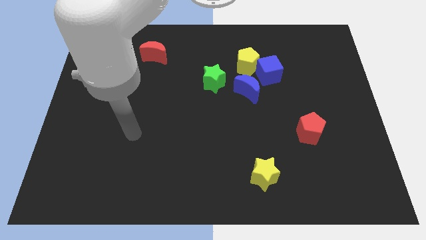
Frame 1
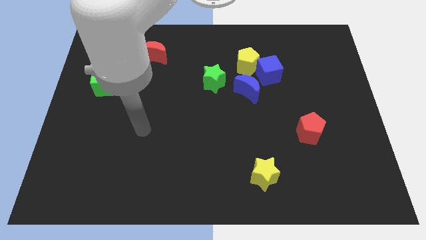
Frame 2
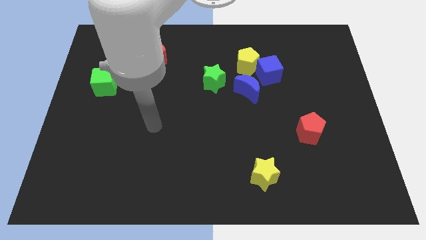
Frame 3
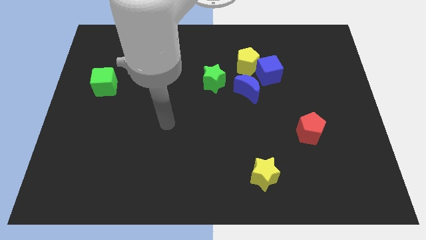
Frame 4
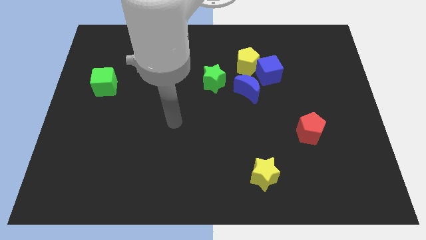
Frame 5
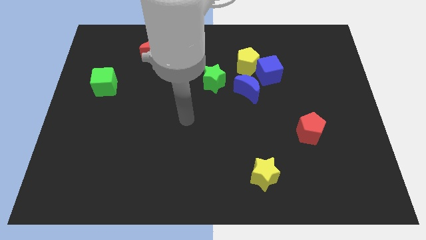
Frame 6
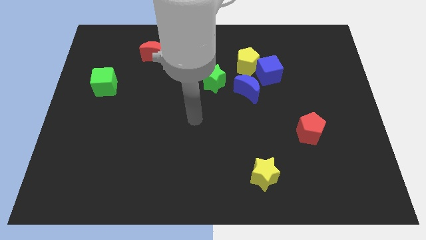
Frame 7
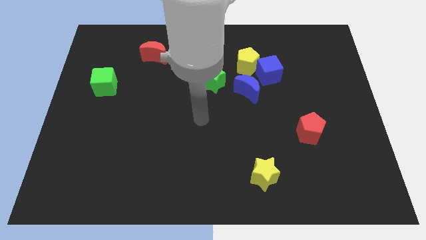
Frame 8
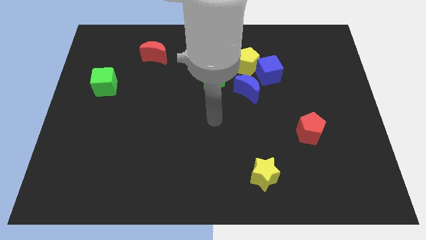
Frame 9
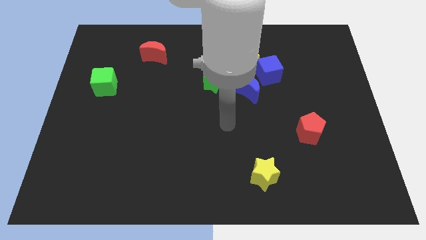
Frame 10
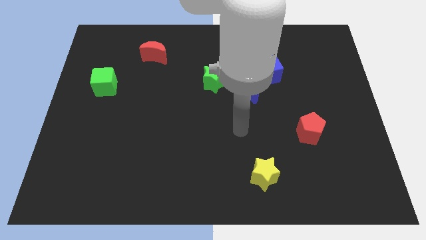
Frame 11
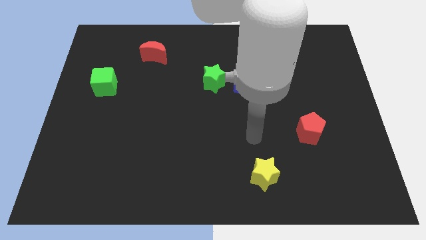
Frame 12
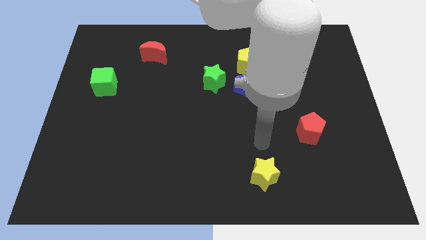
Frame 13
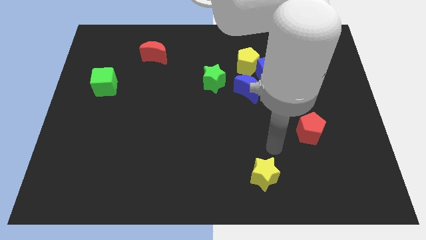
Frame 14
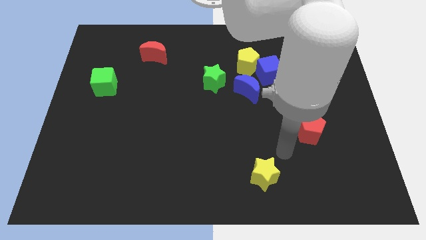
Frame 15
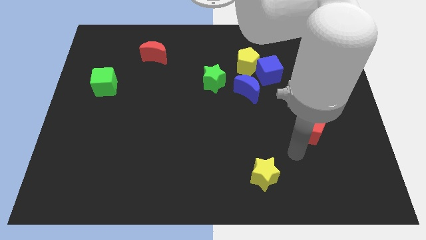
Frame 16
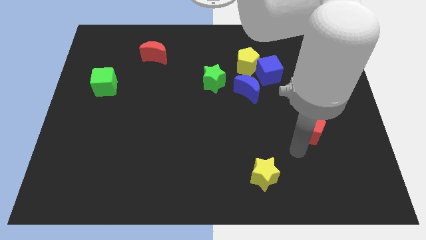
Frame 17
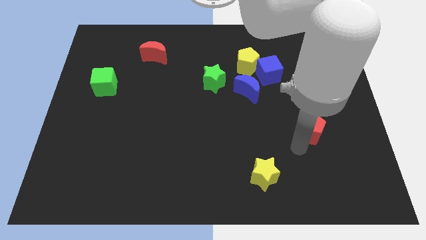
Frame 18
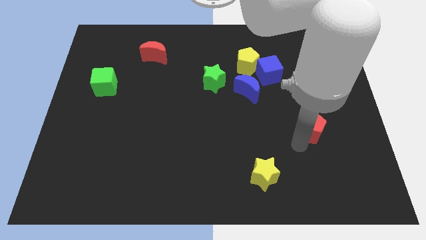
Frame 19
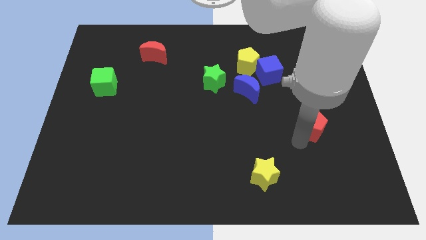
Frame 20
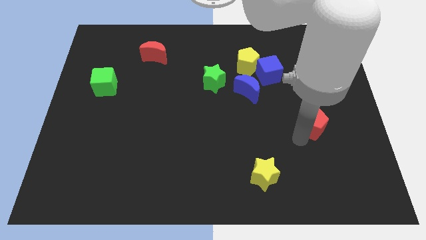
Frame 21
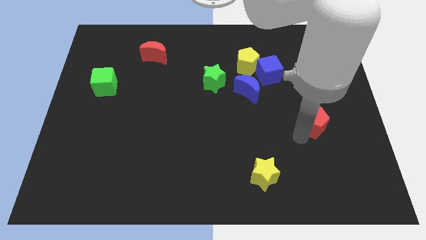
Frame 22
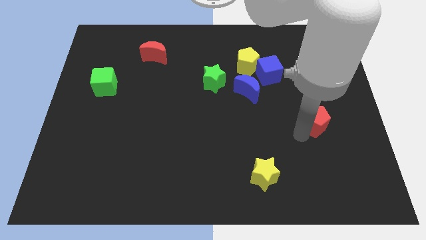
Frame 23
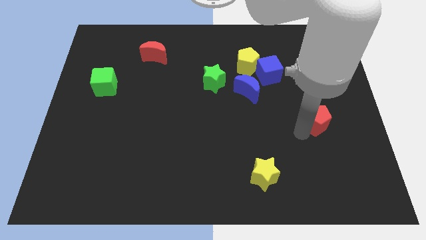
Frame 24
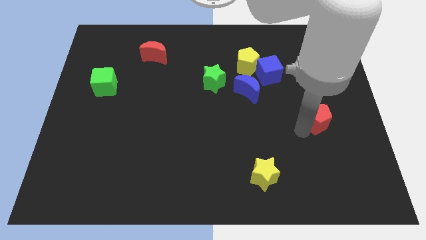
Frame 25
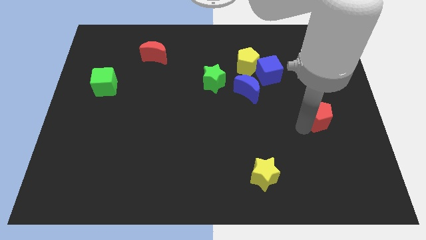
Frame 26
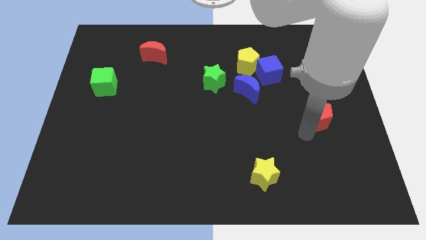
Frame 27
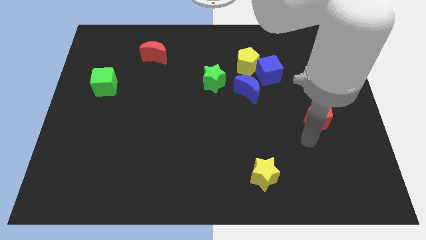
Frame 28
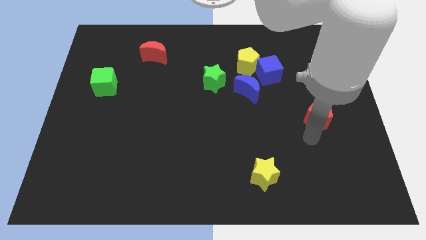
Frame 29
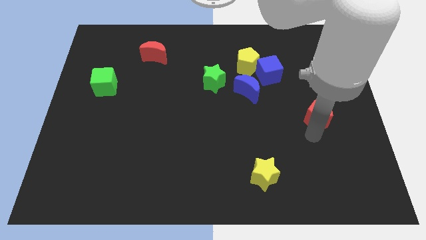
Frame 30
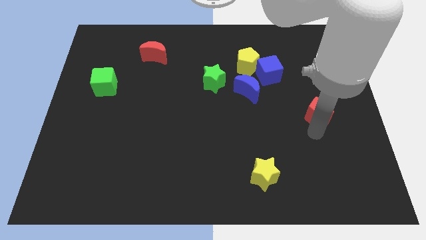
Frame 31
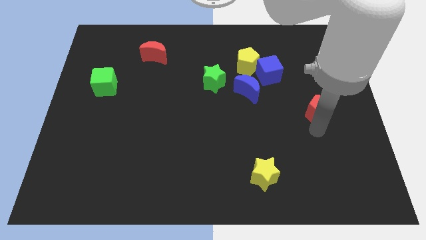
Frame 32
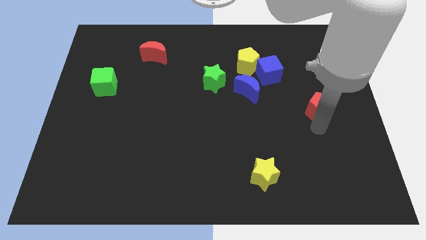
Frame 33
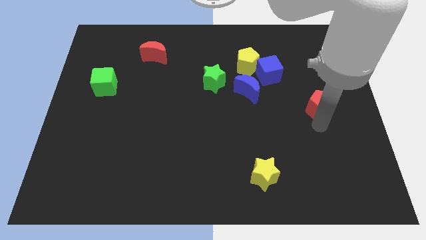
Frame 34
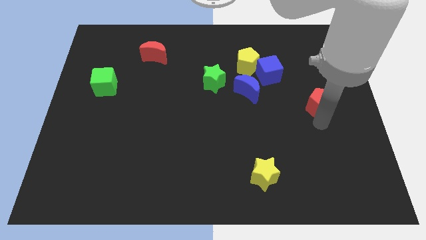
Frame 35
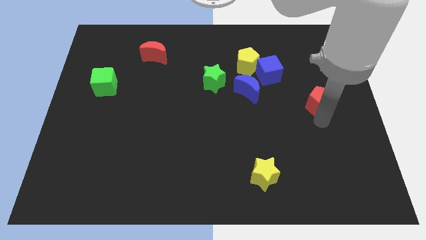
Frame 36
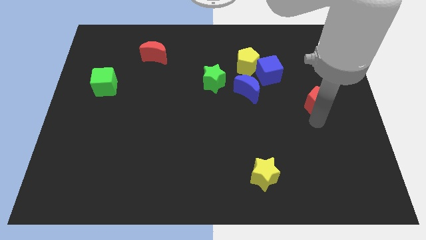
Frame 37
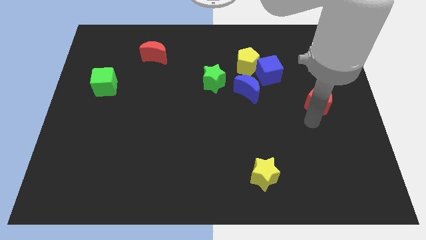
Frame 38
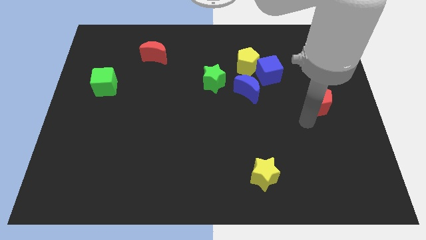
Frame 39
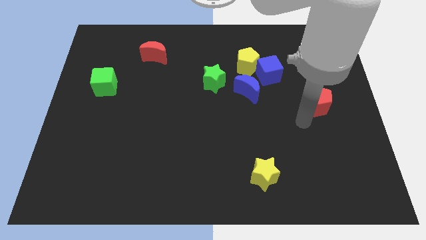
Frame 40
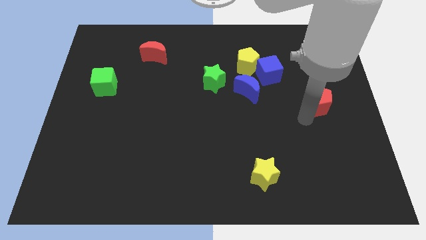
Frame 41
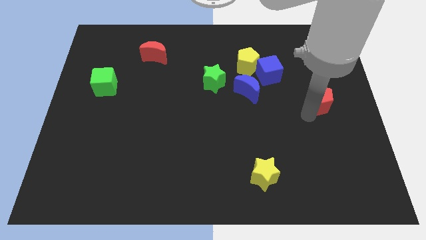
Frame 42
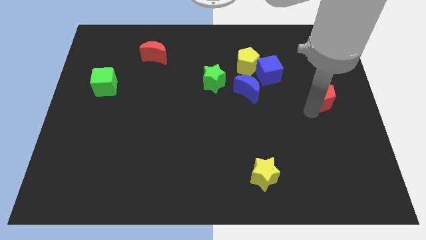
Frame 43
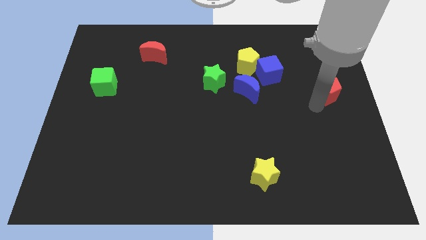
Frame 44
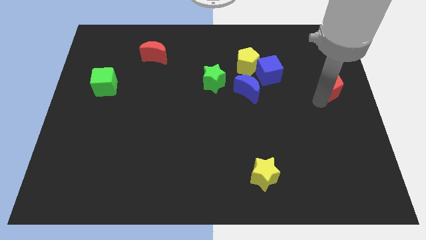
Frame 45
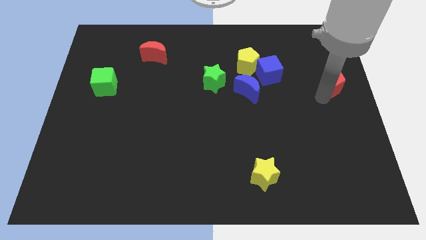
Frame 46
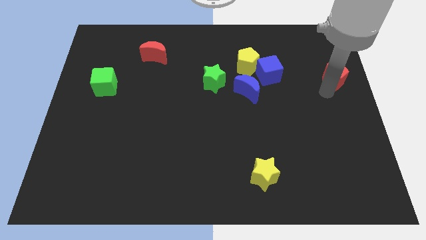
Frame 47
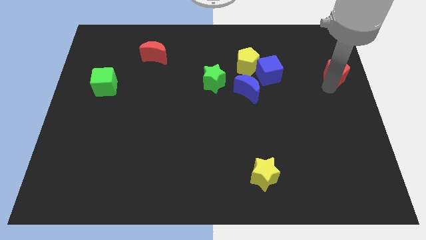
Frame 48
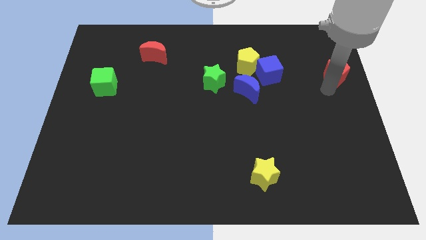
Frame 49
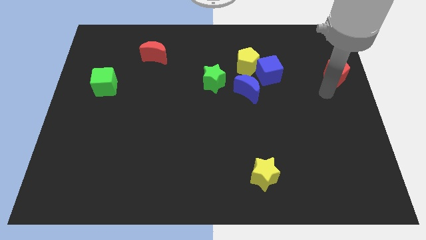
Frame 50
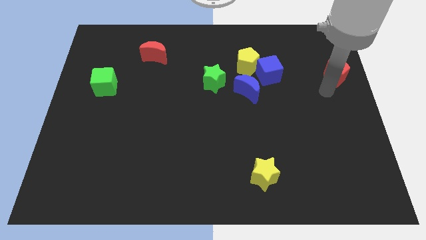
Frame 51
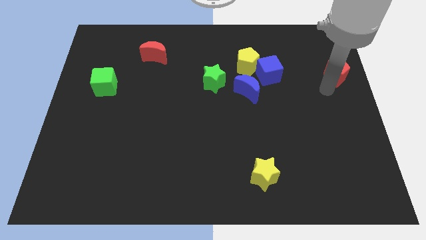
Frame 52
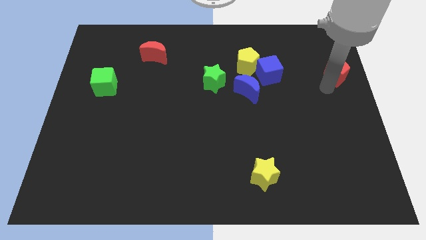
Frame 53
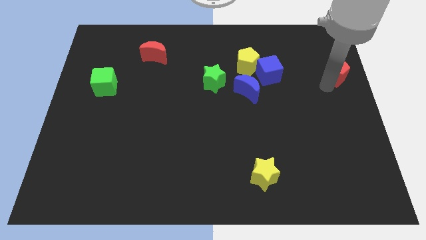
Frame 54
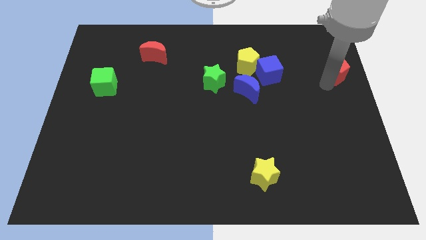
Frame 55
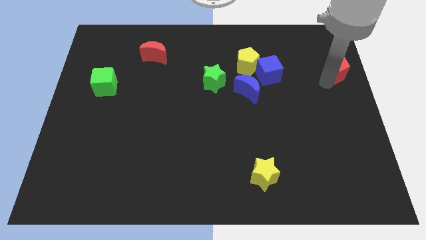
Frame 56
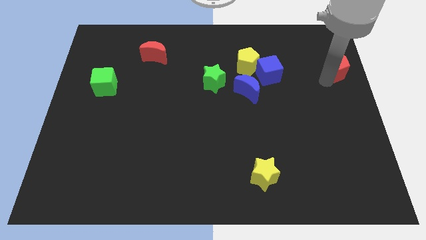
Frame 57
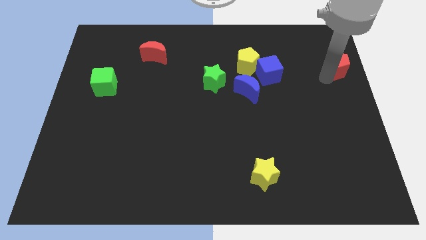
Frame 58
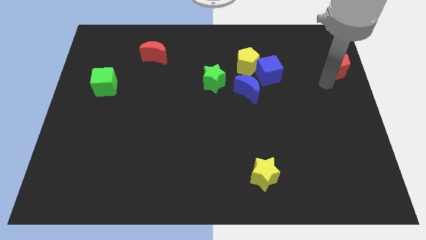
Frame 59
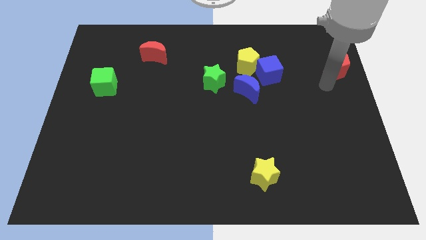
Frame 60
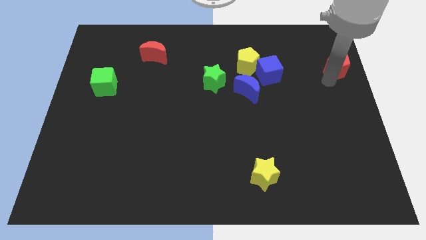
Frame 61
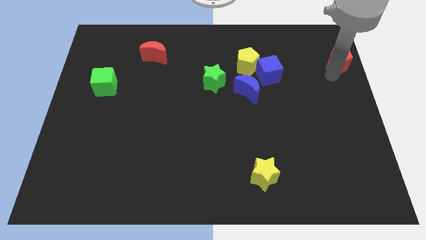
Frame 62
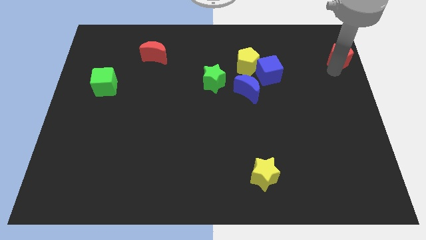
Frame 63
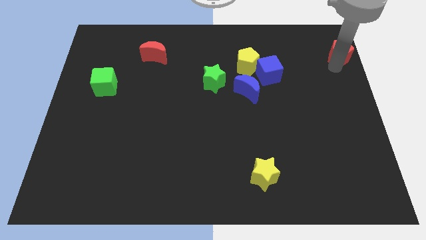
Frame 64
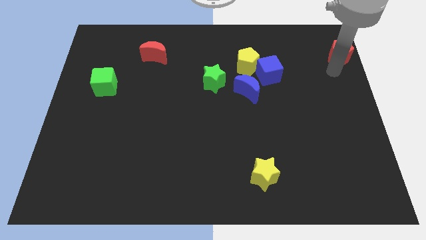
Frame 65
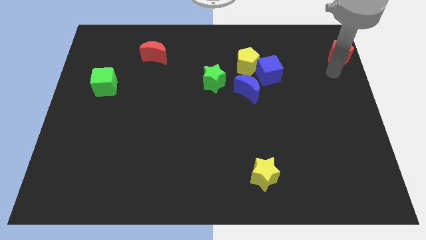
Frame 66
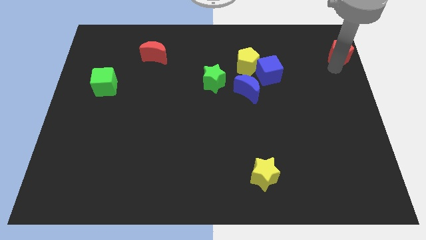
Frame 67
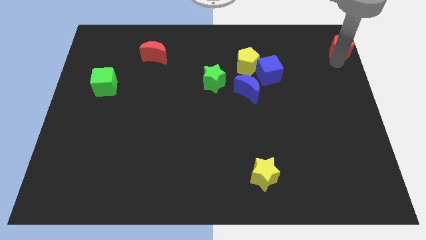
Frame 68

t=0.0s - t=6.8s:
move the red pentagon to the top right of the board
